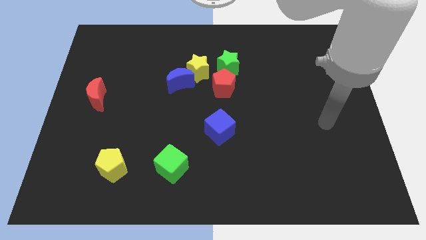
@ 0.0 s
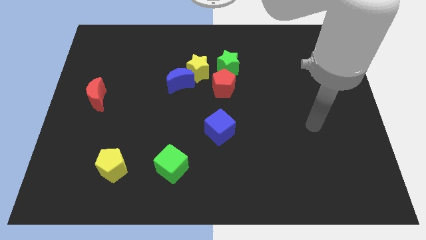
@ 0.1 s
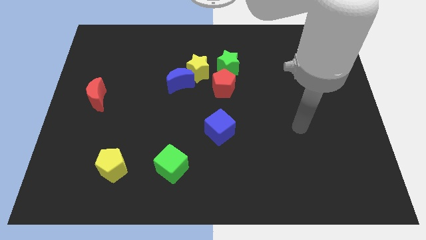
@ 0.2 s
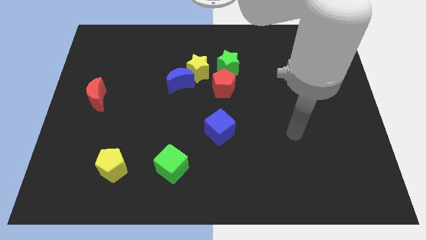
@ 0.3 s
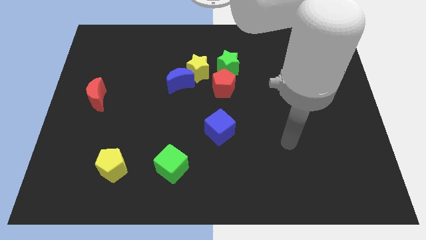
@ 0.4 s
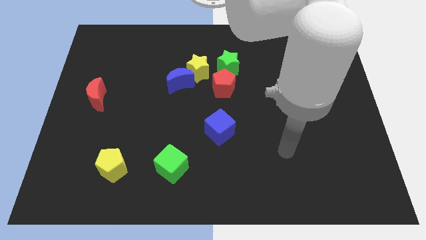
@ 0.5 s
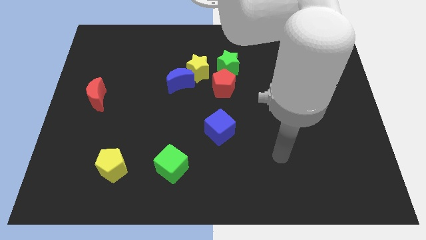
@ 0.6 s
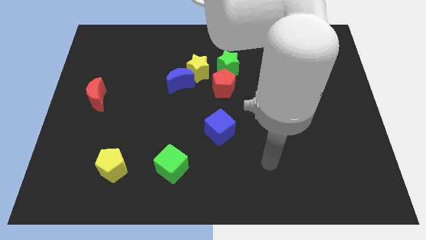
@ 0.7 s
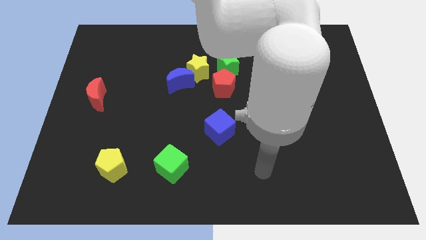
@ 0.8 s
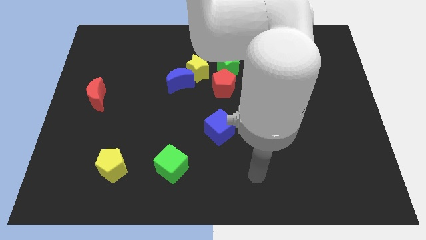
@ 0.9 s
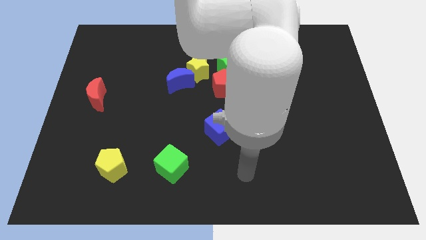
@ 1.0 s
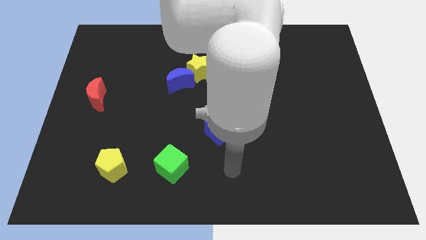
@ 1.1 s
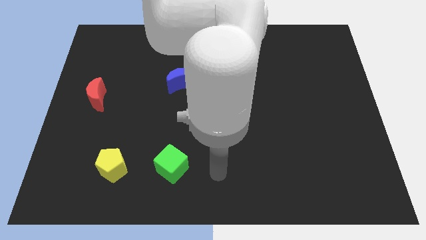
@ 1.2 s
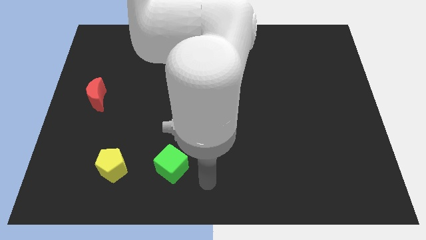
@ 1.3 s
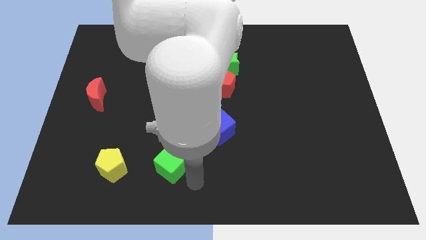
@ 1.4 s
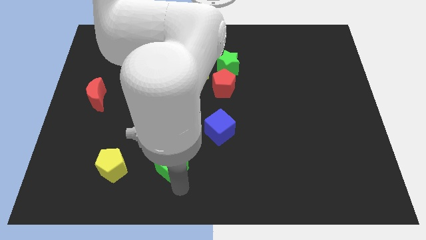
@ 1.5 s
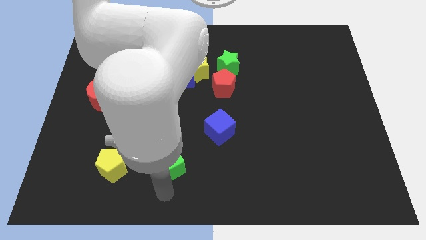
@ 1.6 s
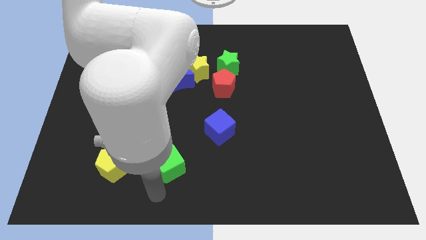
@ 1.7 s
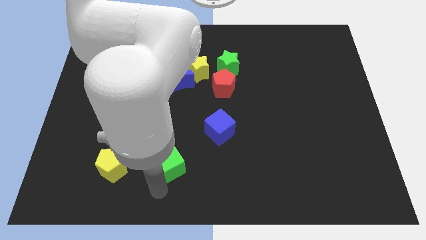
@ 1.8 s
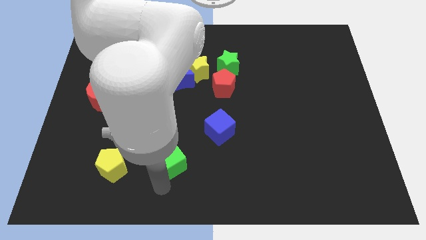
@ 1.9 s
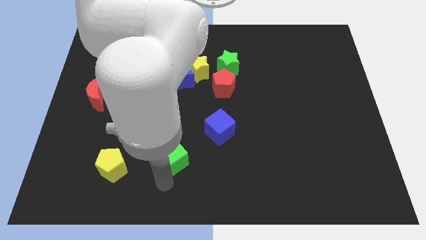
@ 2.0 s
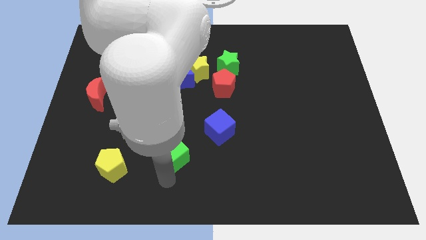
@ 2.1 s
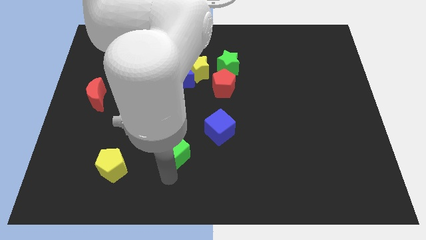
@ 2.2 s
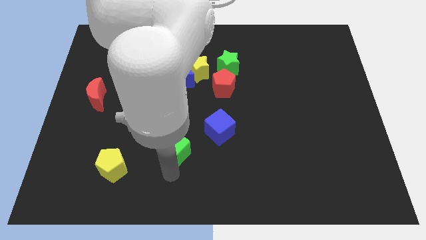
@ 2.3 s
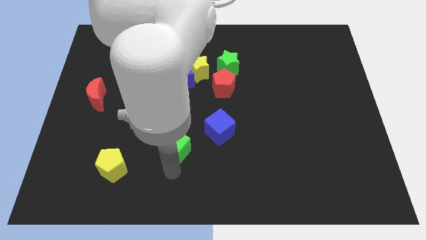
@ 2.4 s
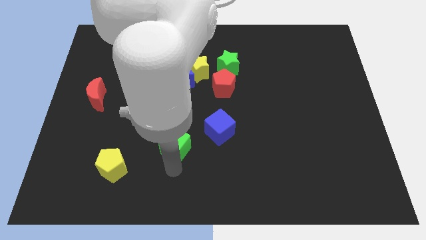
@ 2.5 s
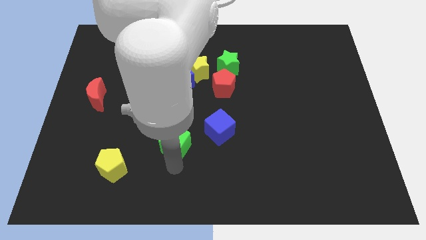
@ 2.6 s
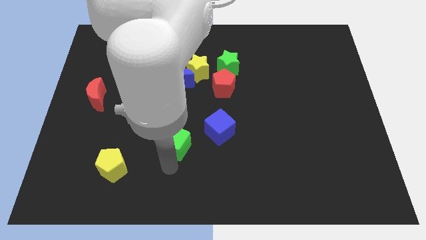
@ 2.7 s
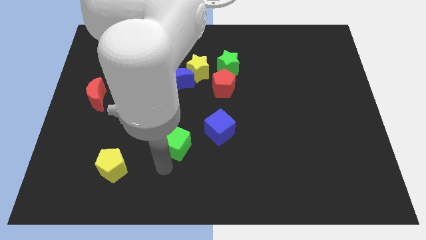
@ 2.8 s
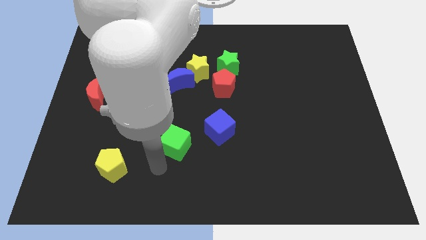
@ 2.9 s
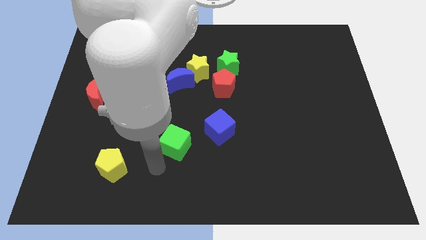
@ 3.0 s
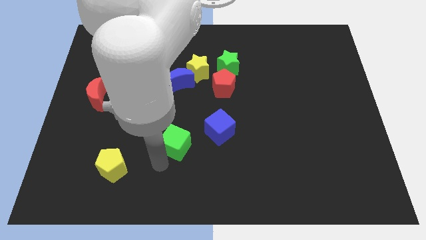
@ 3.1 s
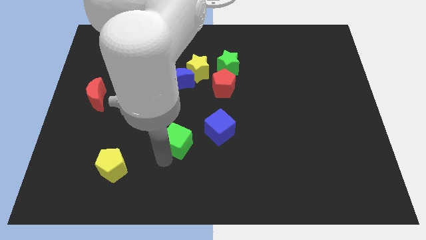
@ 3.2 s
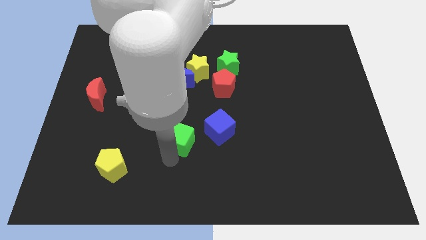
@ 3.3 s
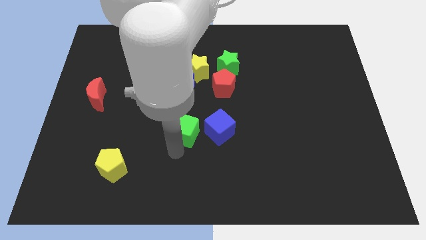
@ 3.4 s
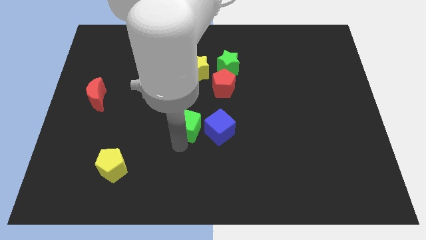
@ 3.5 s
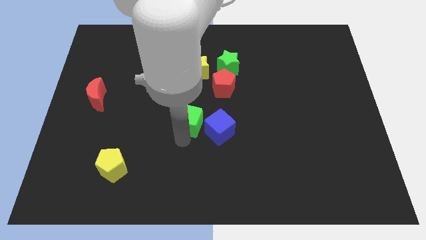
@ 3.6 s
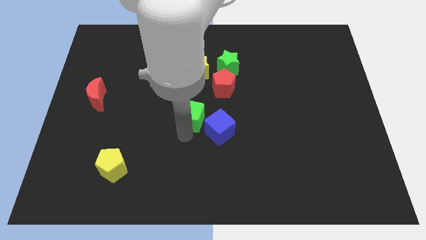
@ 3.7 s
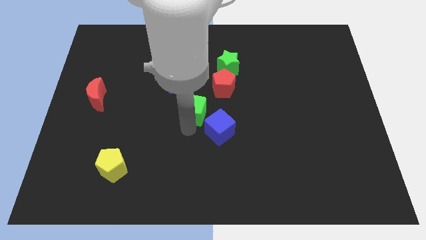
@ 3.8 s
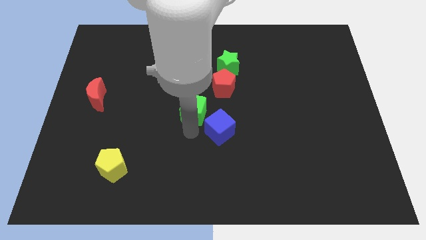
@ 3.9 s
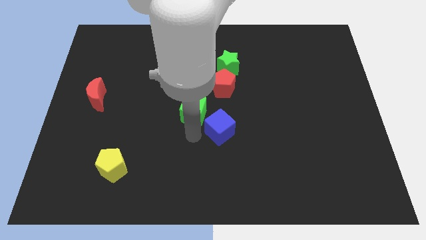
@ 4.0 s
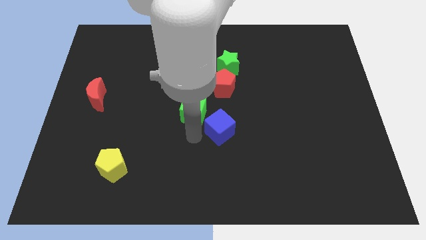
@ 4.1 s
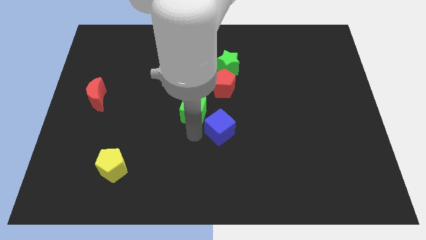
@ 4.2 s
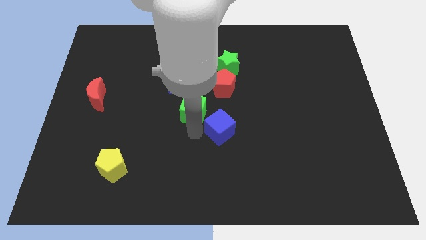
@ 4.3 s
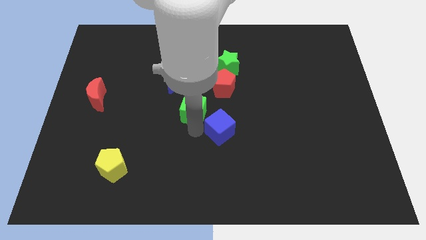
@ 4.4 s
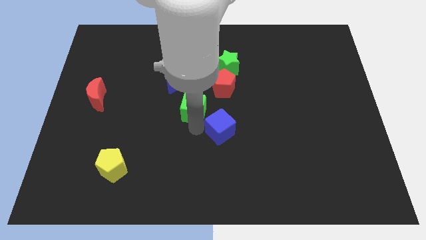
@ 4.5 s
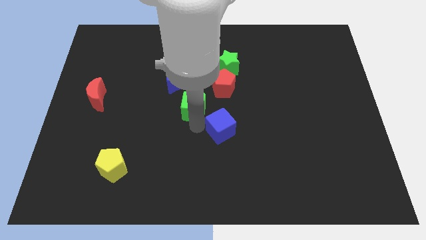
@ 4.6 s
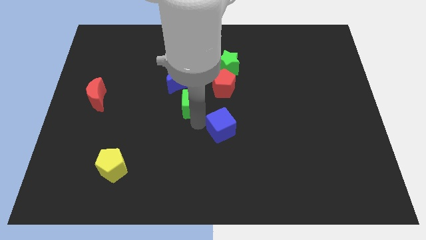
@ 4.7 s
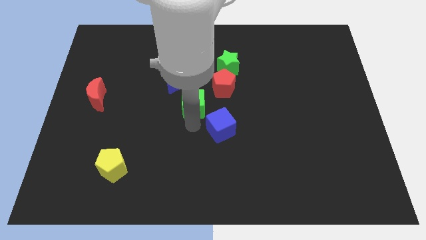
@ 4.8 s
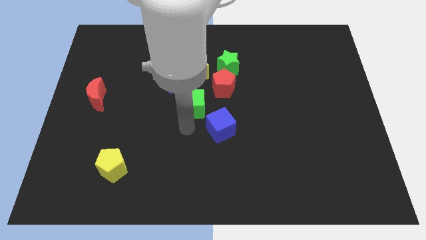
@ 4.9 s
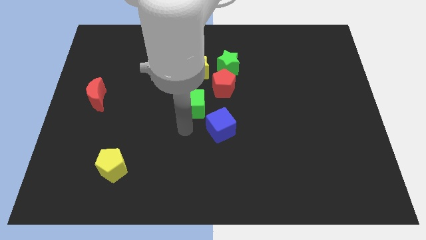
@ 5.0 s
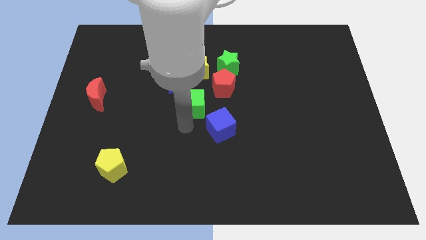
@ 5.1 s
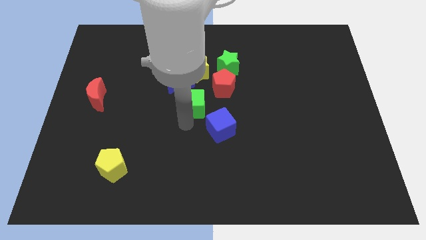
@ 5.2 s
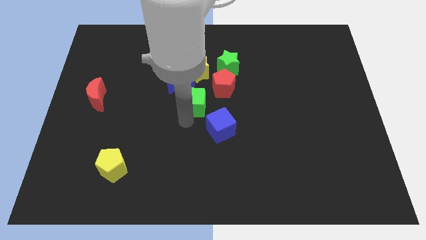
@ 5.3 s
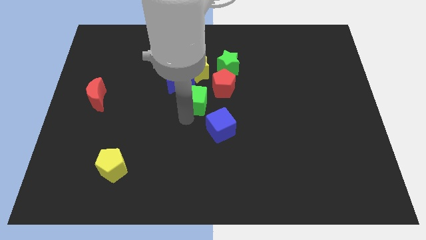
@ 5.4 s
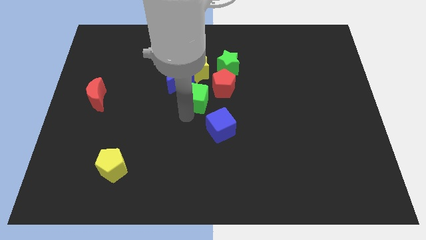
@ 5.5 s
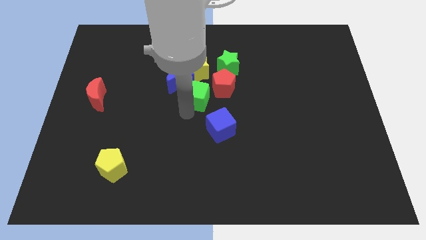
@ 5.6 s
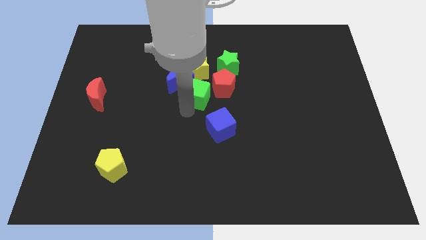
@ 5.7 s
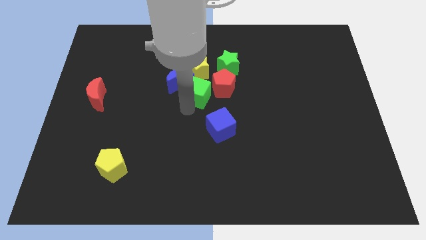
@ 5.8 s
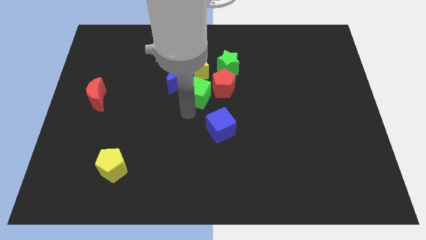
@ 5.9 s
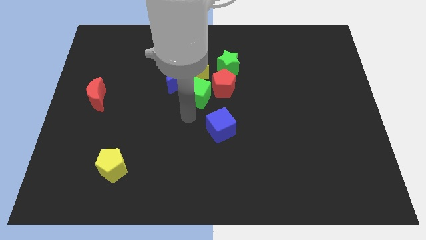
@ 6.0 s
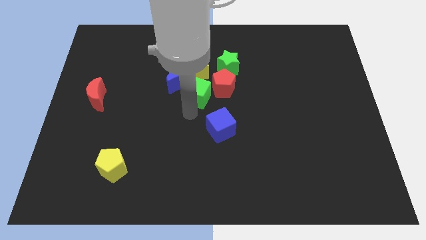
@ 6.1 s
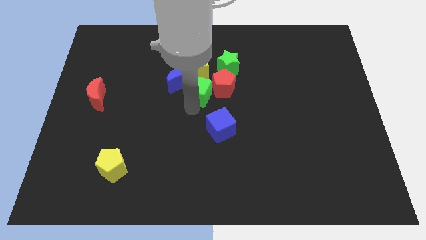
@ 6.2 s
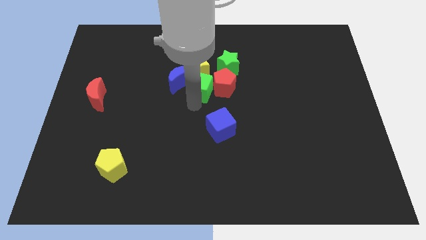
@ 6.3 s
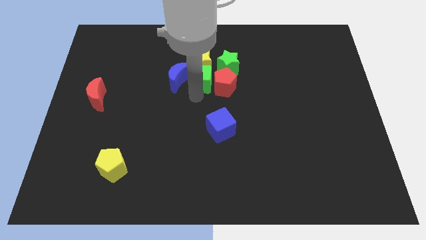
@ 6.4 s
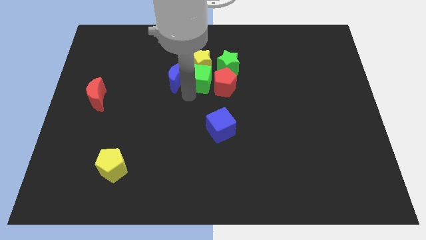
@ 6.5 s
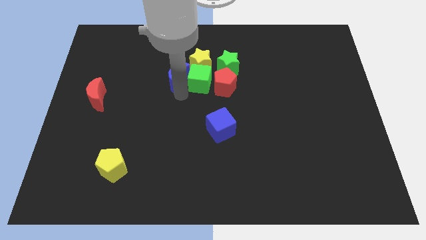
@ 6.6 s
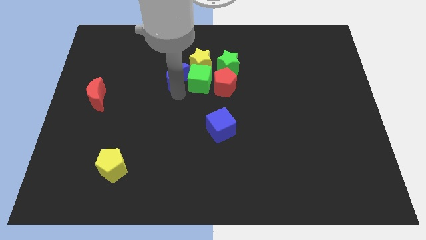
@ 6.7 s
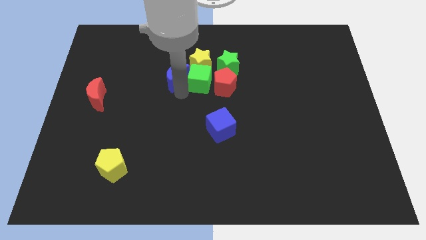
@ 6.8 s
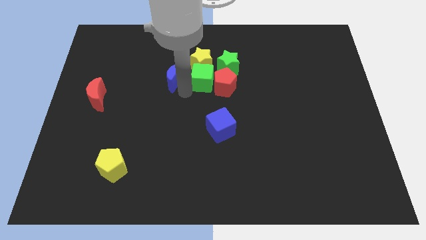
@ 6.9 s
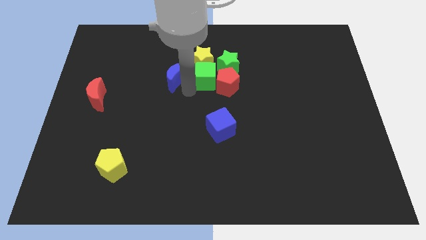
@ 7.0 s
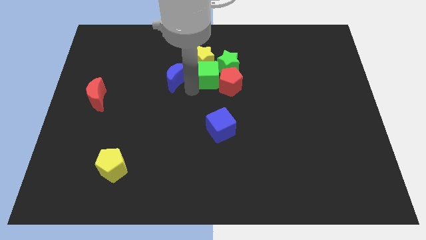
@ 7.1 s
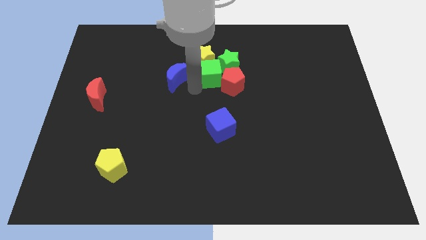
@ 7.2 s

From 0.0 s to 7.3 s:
move the green cube towards the green star

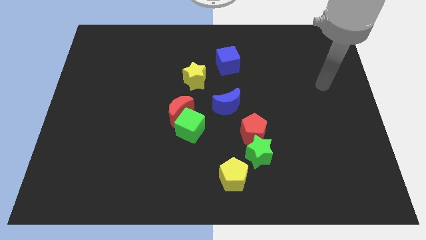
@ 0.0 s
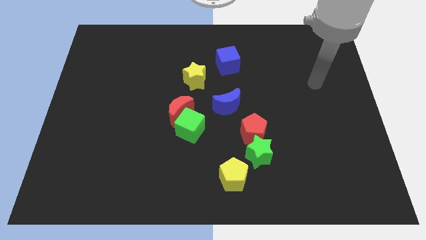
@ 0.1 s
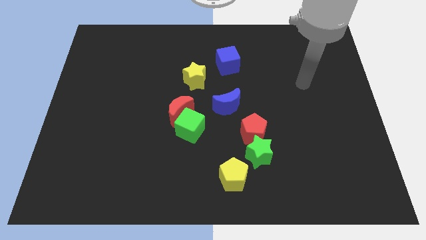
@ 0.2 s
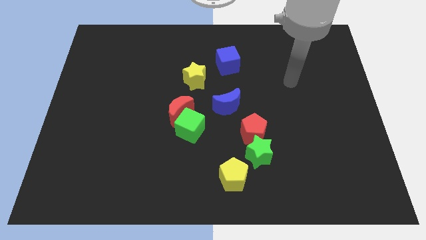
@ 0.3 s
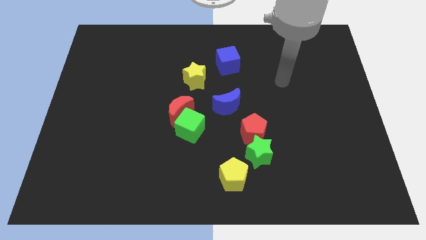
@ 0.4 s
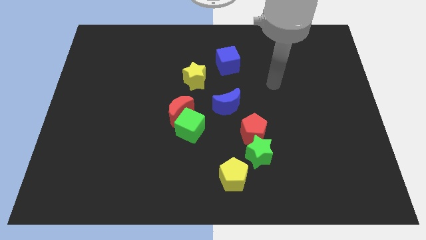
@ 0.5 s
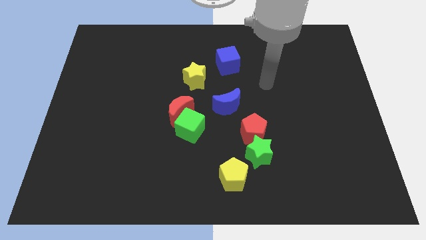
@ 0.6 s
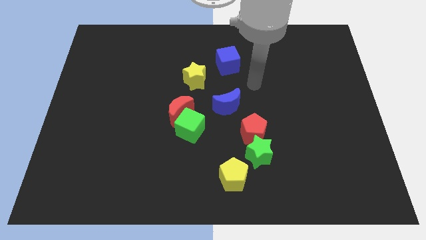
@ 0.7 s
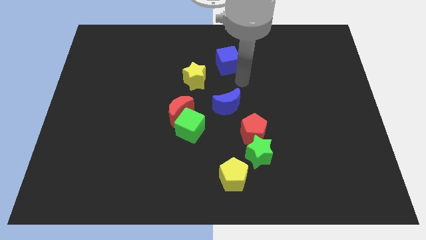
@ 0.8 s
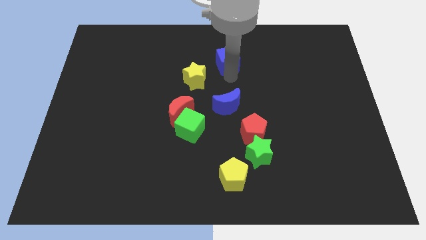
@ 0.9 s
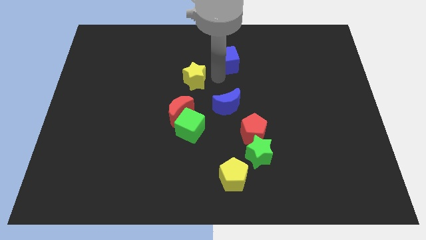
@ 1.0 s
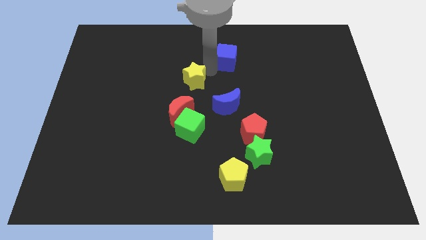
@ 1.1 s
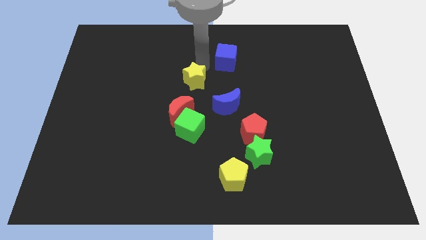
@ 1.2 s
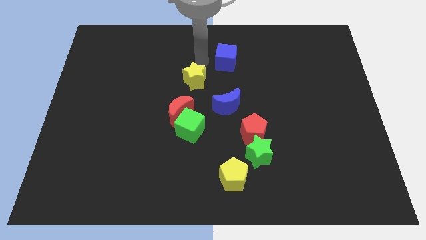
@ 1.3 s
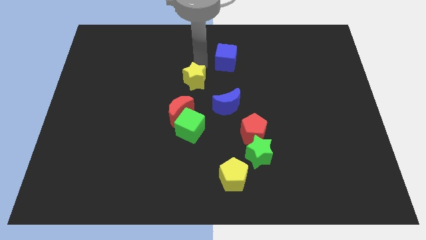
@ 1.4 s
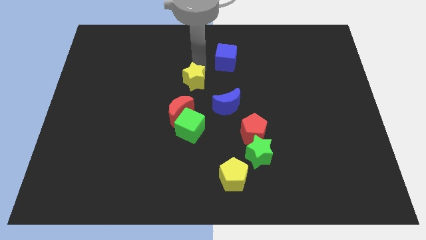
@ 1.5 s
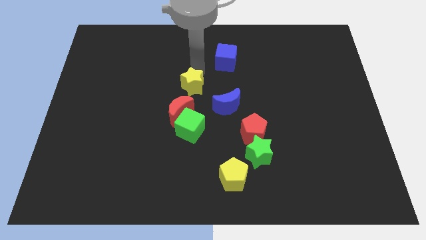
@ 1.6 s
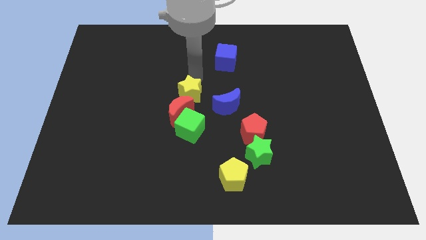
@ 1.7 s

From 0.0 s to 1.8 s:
move the yellow star close to the red moon
